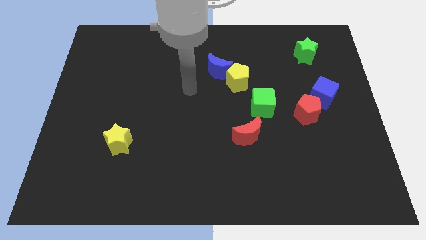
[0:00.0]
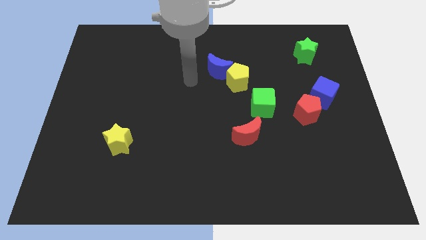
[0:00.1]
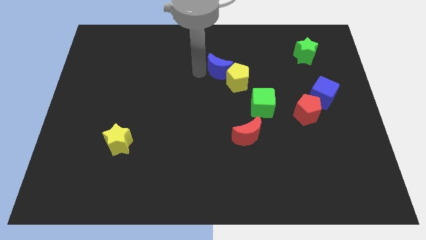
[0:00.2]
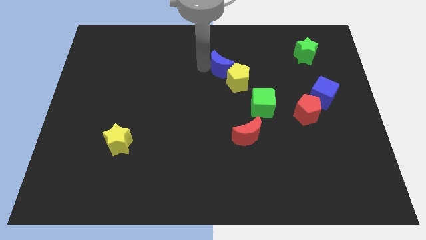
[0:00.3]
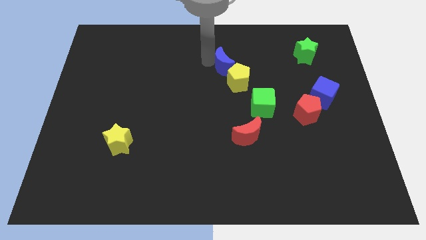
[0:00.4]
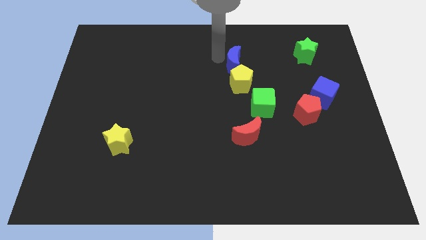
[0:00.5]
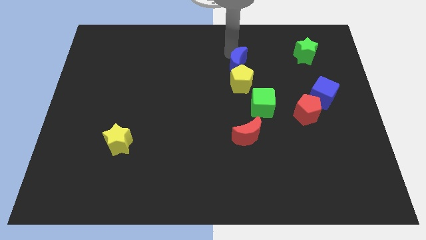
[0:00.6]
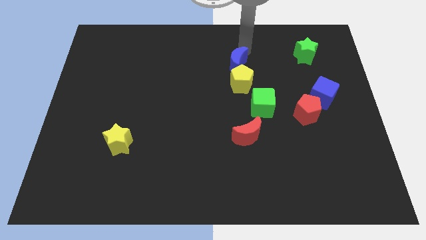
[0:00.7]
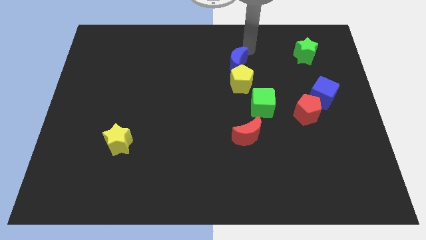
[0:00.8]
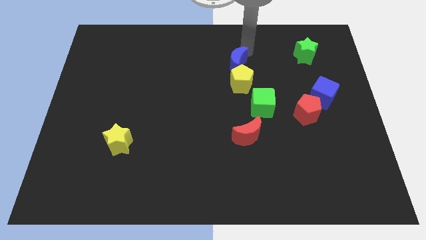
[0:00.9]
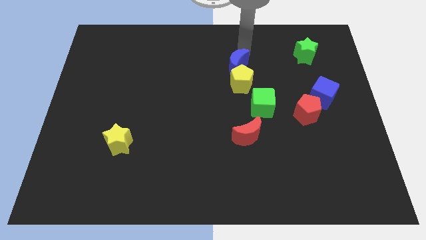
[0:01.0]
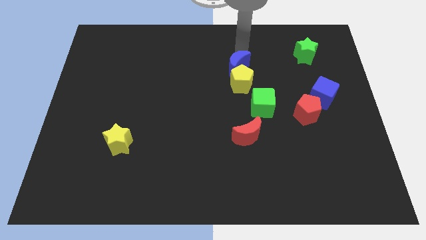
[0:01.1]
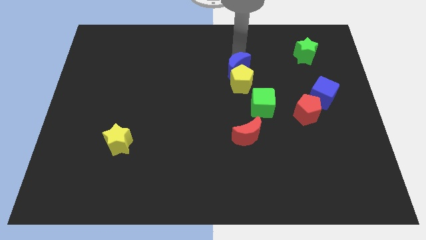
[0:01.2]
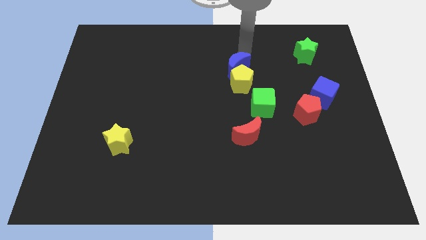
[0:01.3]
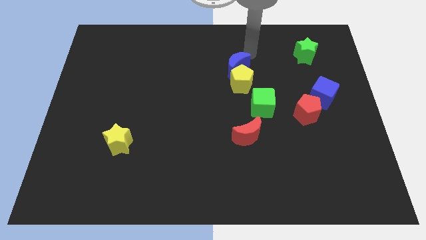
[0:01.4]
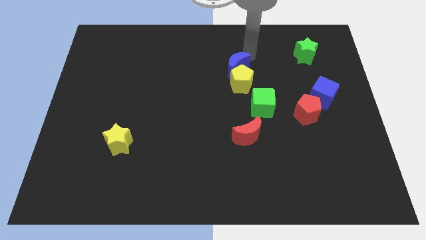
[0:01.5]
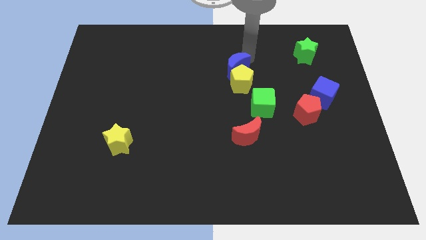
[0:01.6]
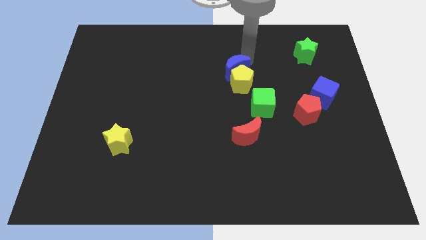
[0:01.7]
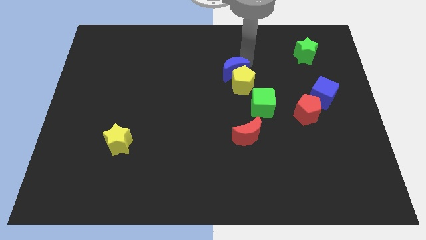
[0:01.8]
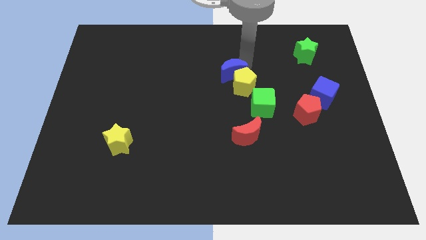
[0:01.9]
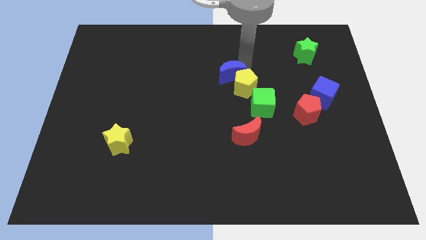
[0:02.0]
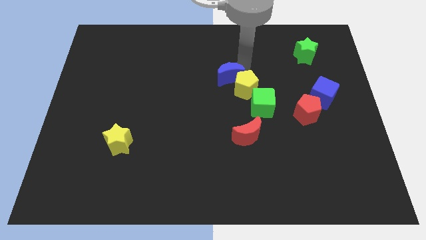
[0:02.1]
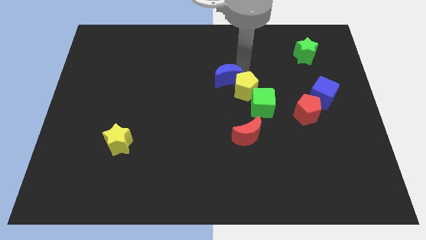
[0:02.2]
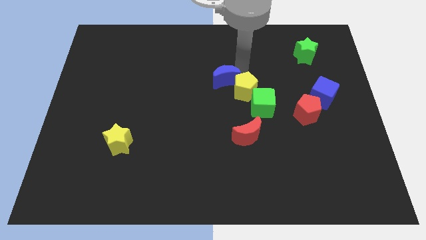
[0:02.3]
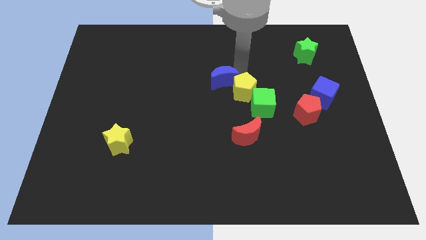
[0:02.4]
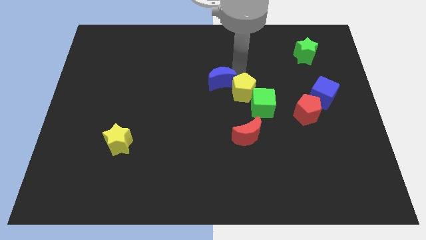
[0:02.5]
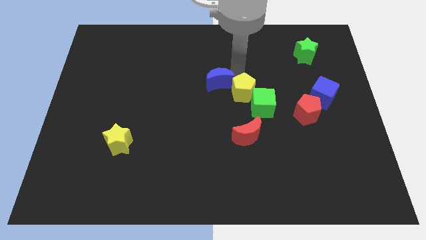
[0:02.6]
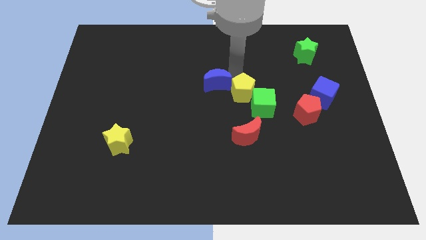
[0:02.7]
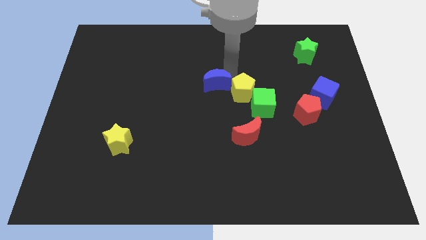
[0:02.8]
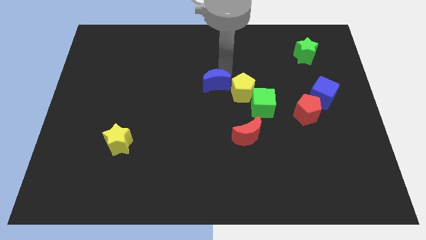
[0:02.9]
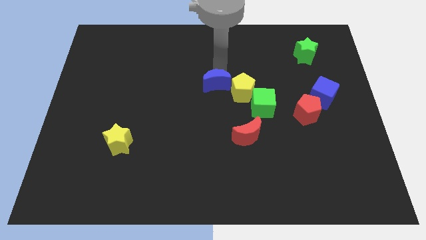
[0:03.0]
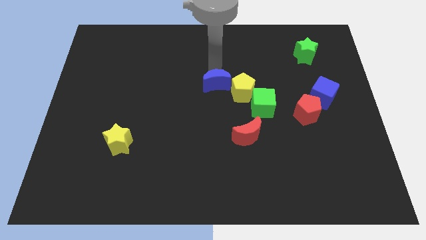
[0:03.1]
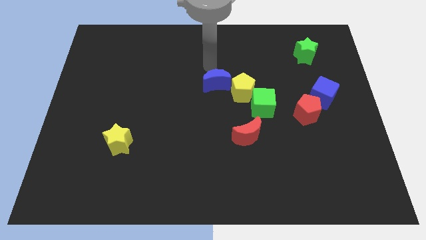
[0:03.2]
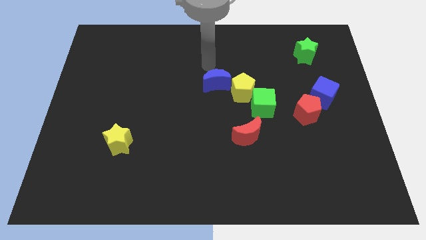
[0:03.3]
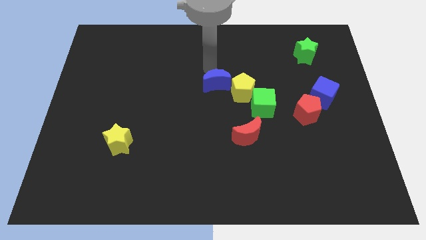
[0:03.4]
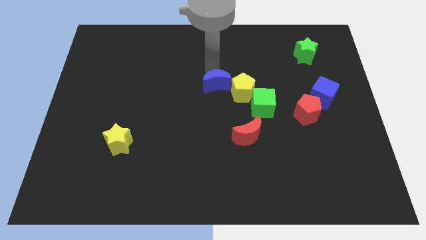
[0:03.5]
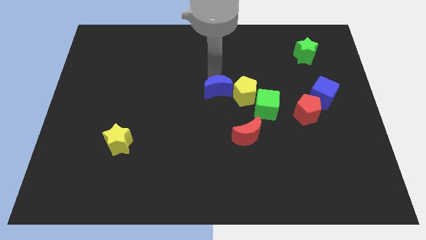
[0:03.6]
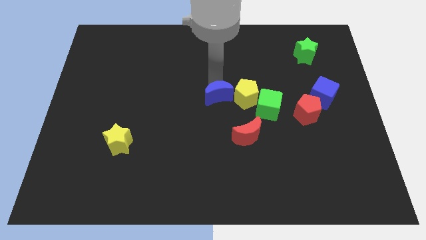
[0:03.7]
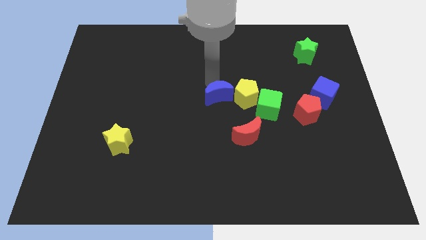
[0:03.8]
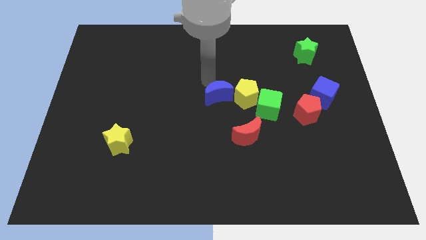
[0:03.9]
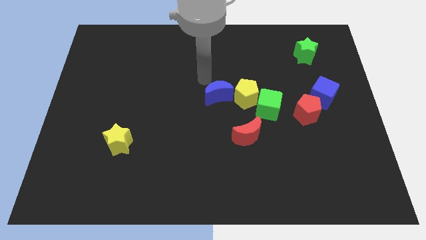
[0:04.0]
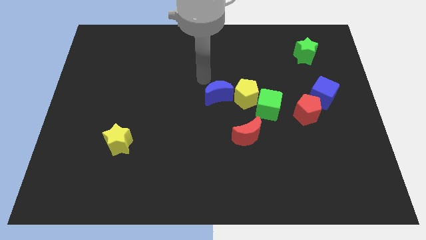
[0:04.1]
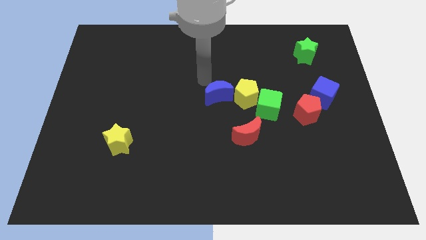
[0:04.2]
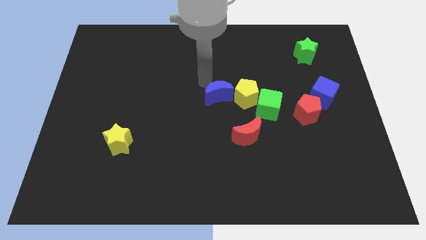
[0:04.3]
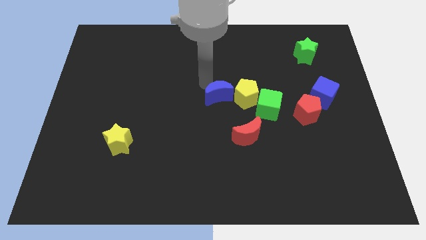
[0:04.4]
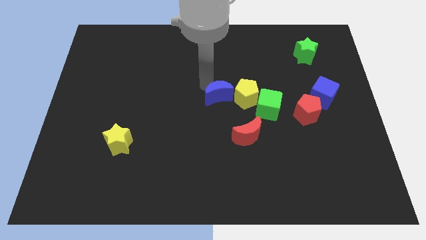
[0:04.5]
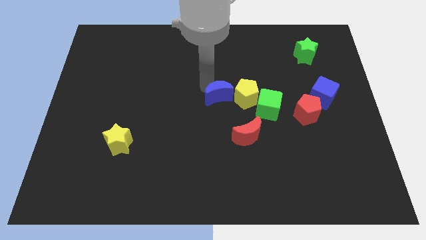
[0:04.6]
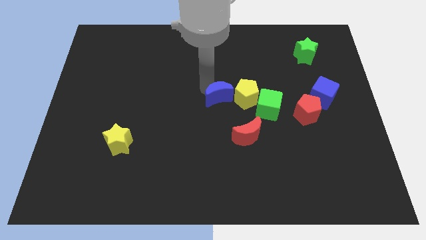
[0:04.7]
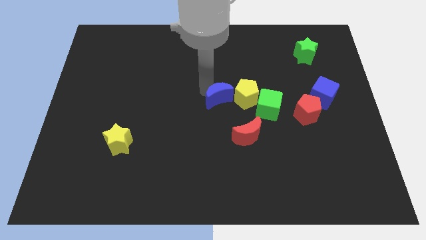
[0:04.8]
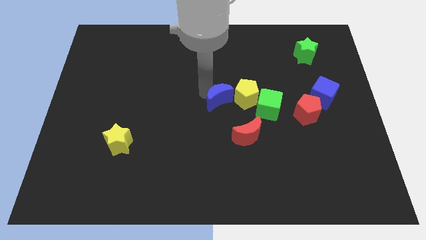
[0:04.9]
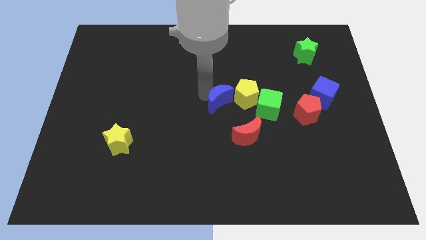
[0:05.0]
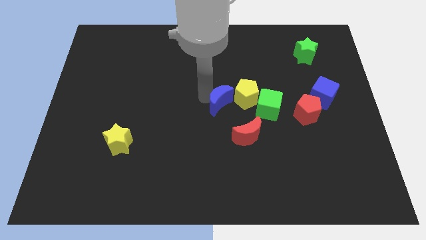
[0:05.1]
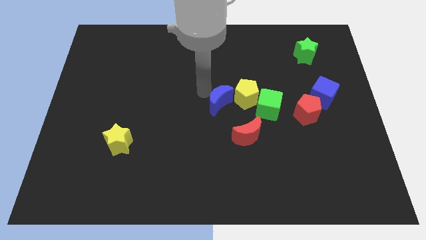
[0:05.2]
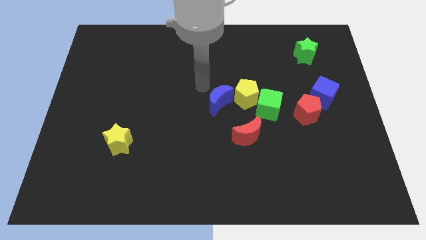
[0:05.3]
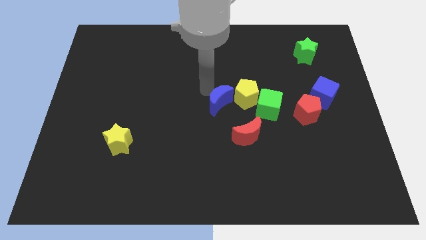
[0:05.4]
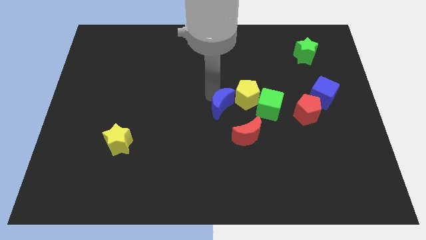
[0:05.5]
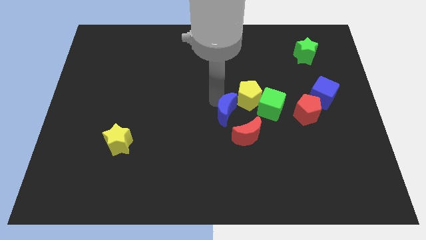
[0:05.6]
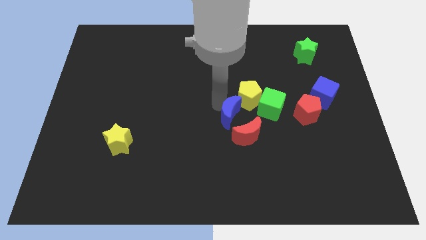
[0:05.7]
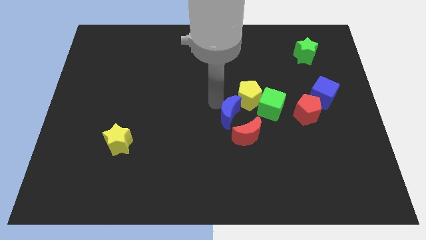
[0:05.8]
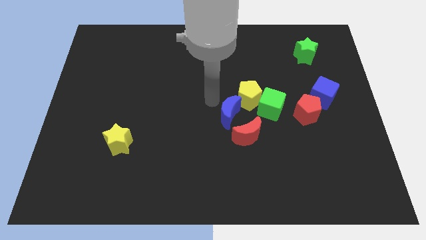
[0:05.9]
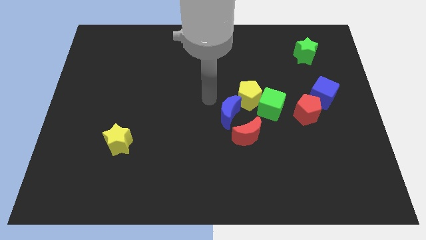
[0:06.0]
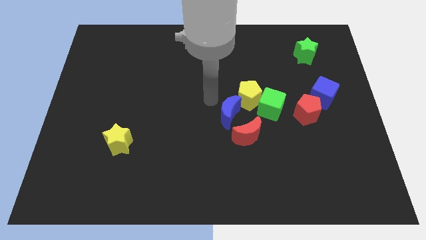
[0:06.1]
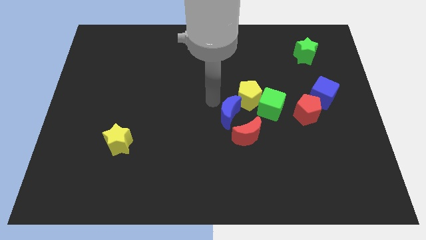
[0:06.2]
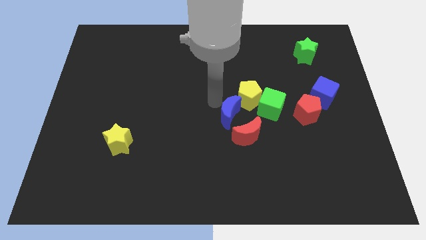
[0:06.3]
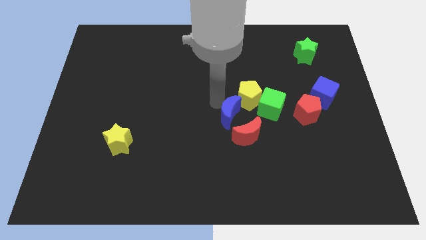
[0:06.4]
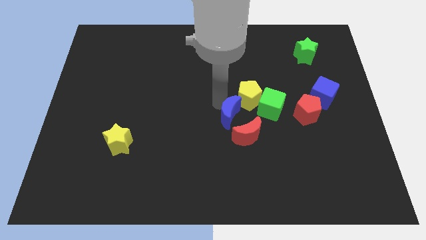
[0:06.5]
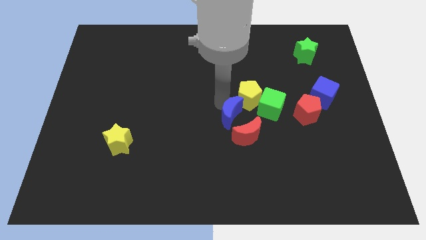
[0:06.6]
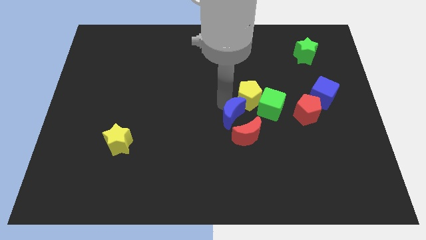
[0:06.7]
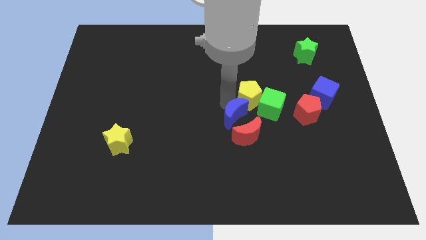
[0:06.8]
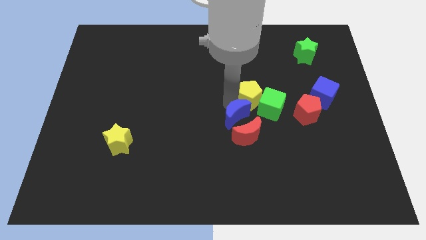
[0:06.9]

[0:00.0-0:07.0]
move the blue moon next to the red moon

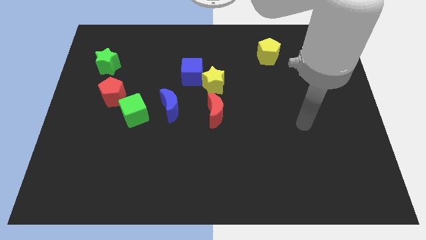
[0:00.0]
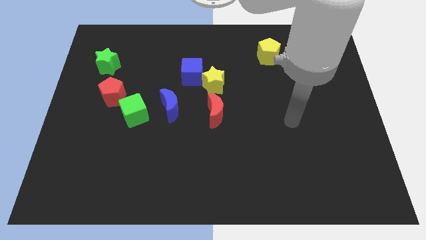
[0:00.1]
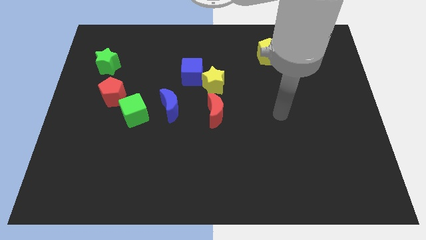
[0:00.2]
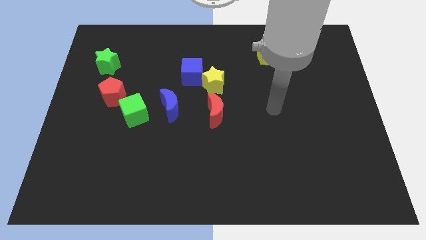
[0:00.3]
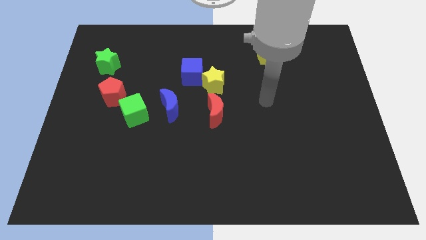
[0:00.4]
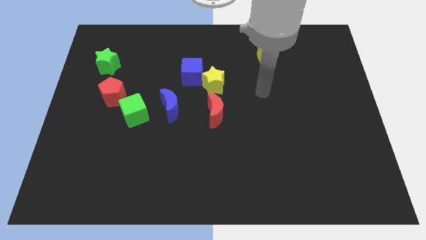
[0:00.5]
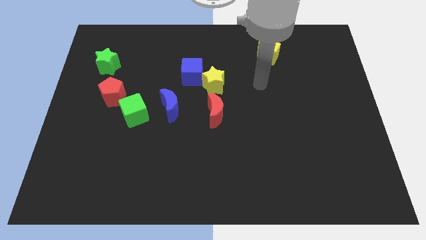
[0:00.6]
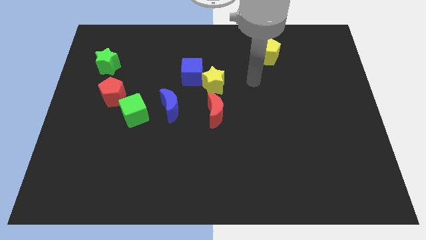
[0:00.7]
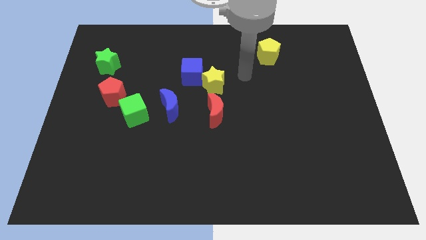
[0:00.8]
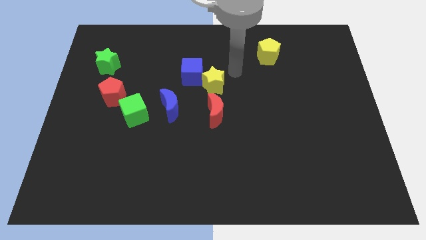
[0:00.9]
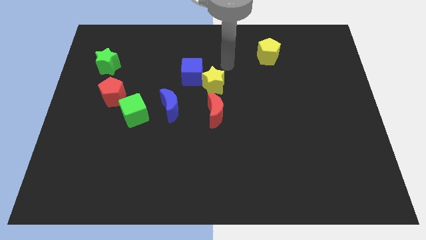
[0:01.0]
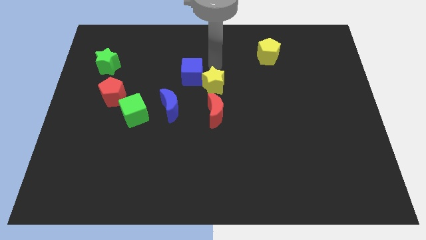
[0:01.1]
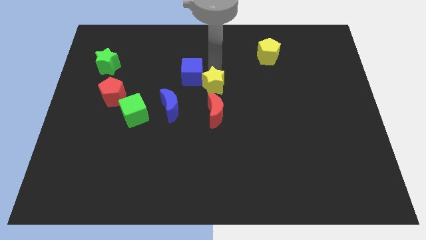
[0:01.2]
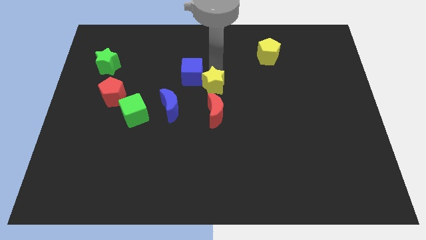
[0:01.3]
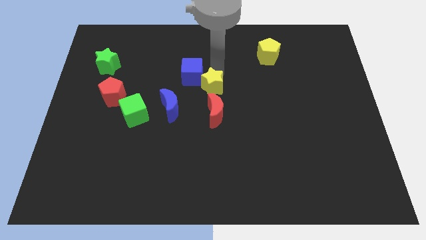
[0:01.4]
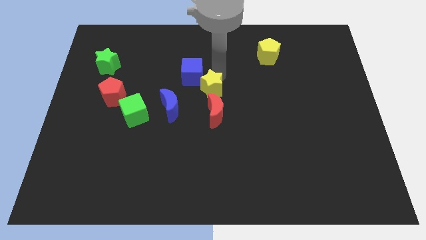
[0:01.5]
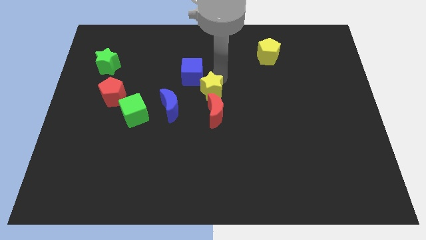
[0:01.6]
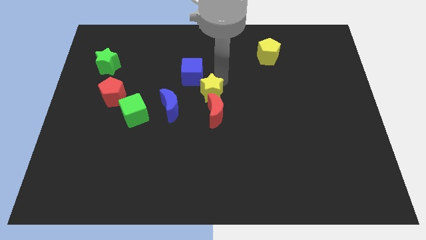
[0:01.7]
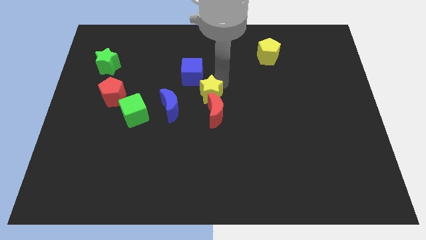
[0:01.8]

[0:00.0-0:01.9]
push the yellow star to the red moon
